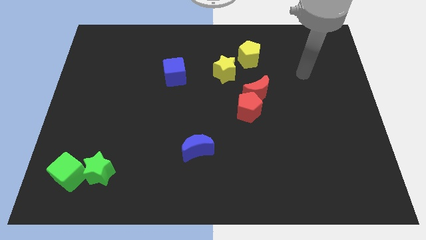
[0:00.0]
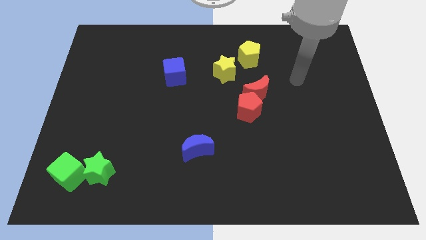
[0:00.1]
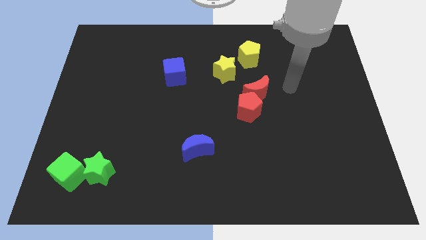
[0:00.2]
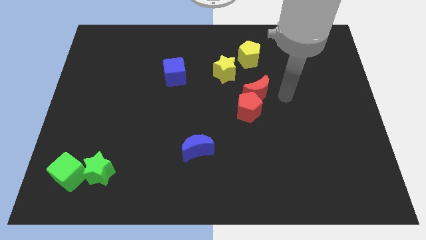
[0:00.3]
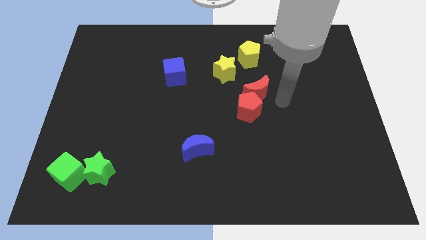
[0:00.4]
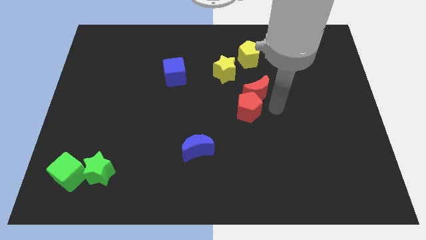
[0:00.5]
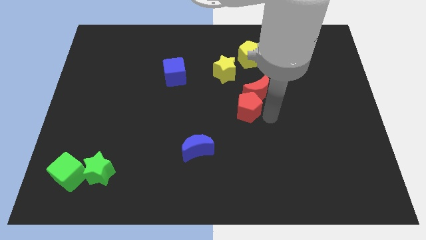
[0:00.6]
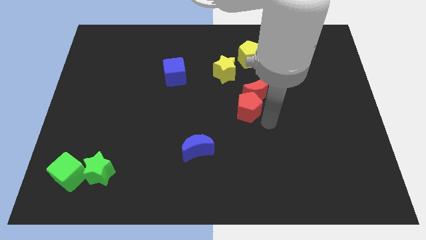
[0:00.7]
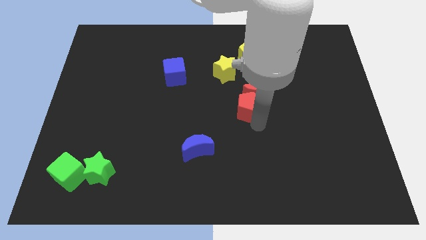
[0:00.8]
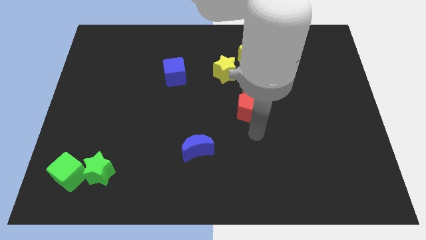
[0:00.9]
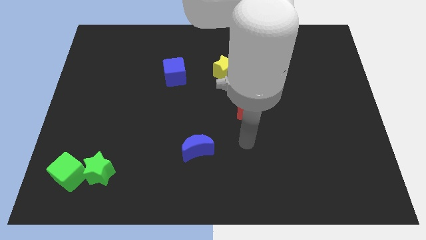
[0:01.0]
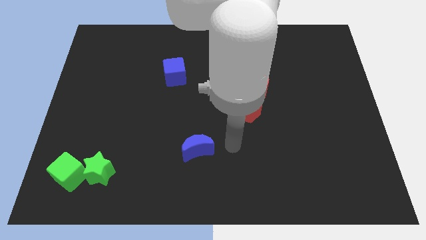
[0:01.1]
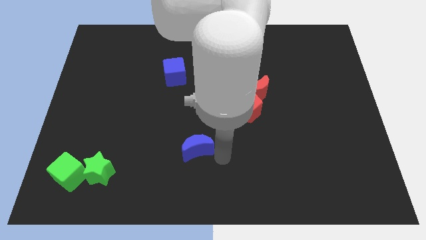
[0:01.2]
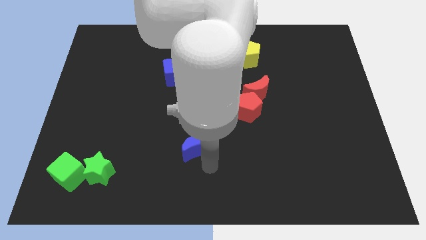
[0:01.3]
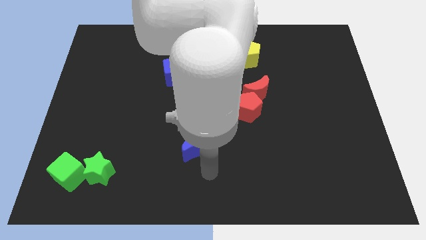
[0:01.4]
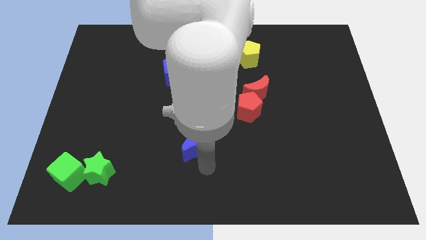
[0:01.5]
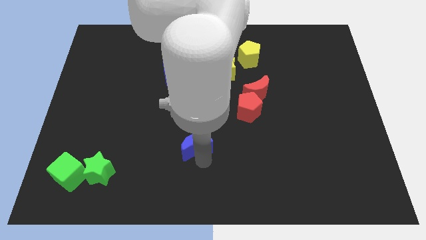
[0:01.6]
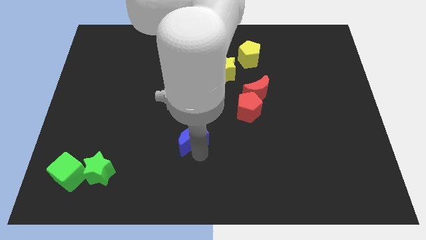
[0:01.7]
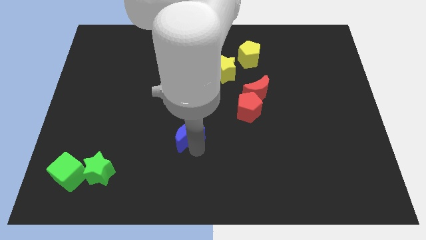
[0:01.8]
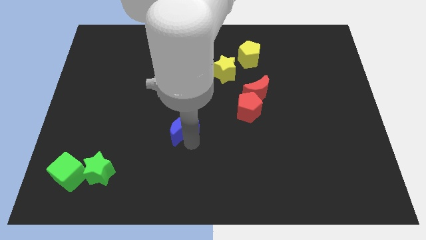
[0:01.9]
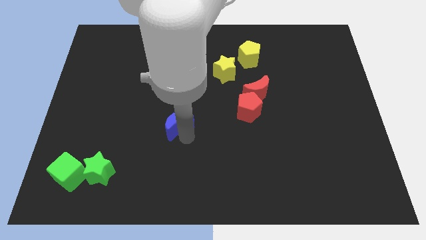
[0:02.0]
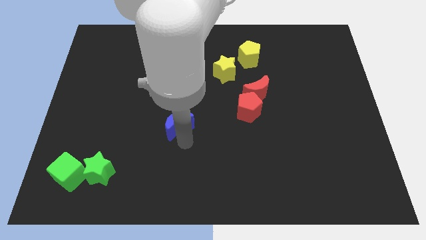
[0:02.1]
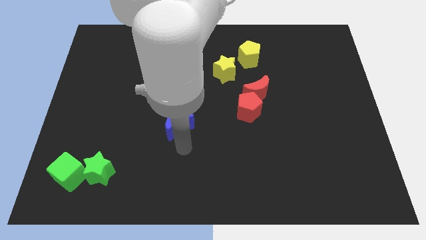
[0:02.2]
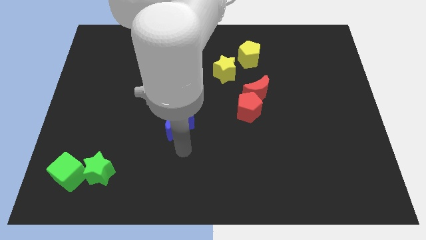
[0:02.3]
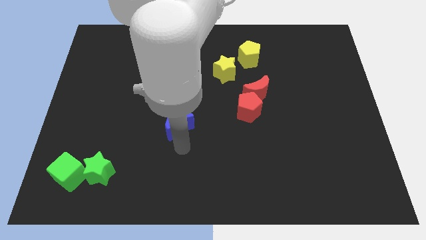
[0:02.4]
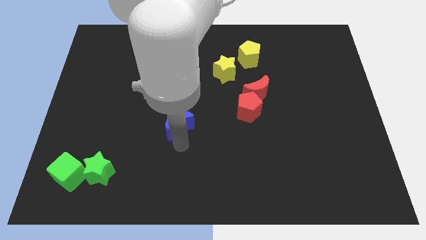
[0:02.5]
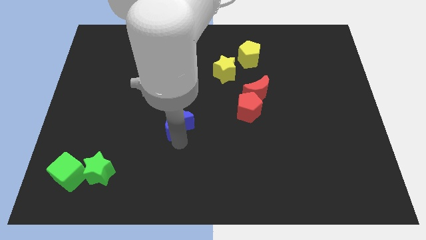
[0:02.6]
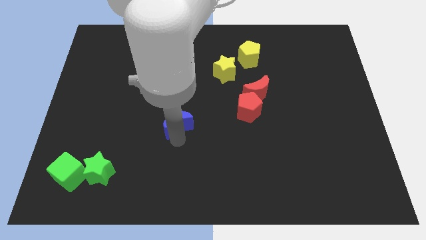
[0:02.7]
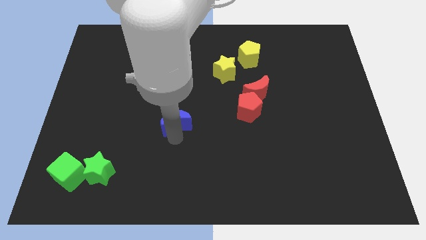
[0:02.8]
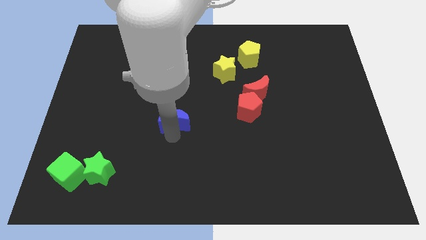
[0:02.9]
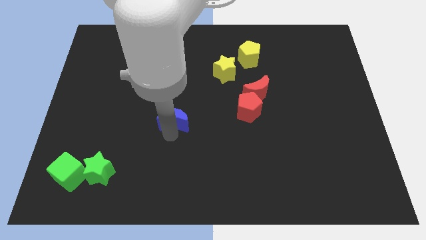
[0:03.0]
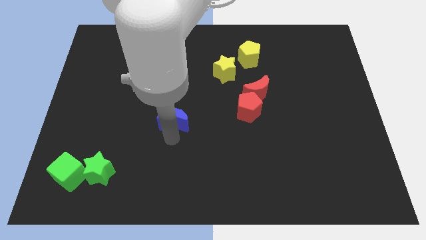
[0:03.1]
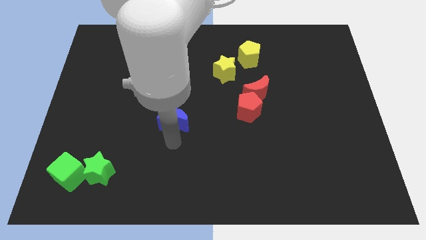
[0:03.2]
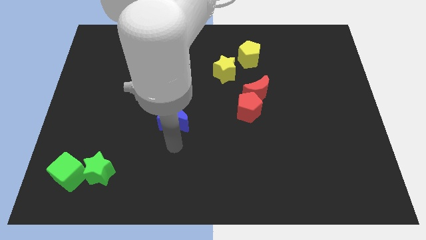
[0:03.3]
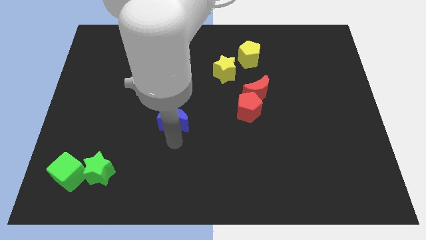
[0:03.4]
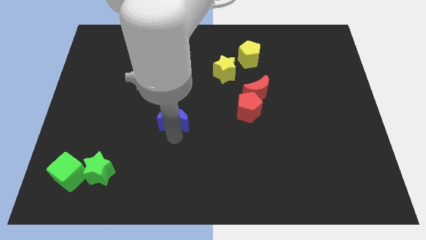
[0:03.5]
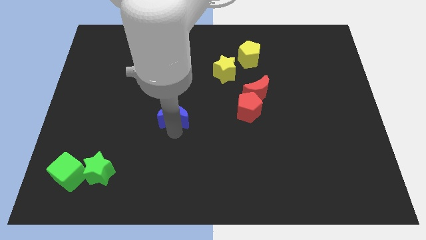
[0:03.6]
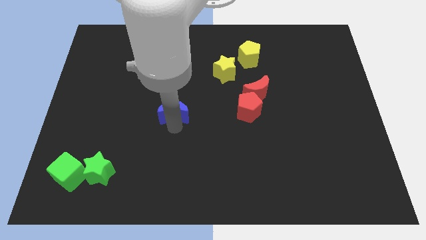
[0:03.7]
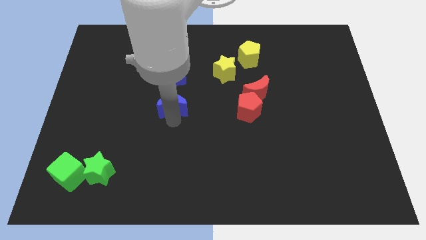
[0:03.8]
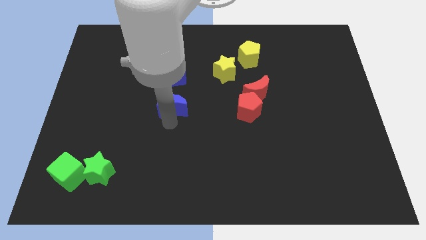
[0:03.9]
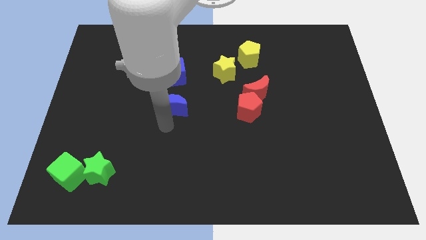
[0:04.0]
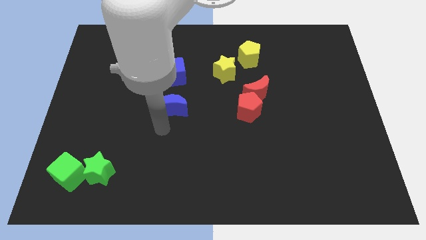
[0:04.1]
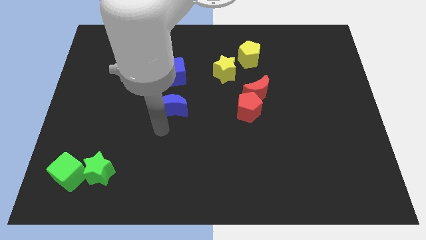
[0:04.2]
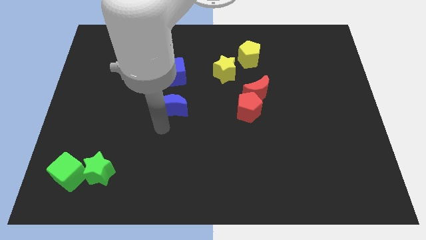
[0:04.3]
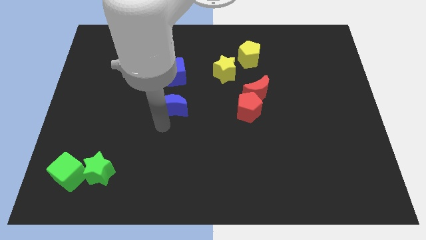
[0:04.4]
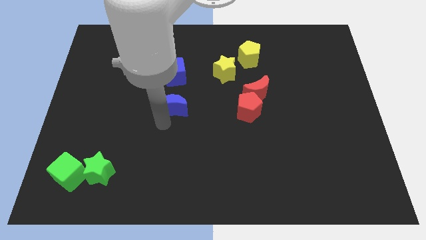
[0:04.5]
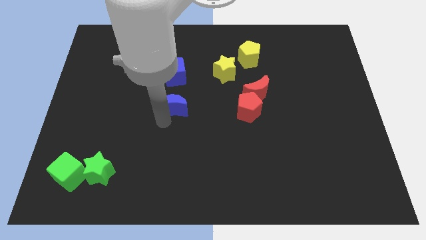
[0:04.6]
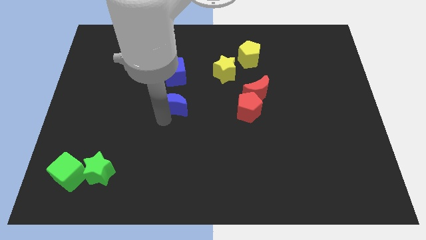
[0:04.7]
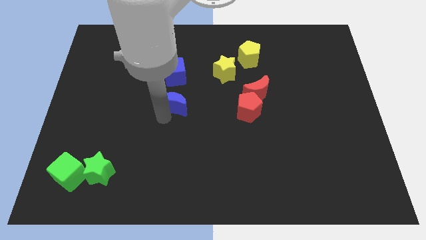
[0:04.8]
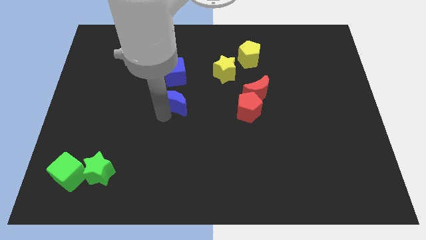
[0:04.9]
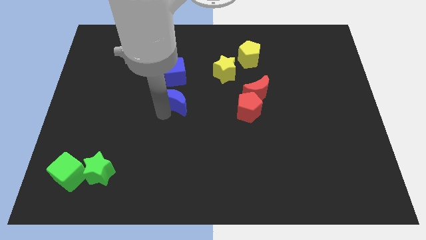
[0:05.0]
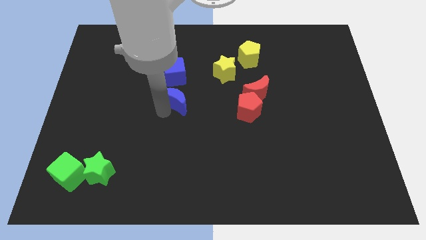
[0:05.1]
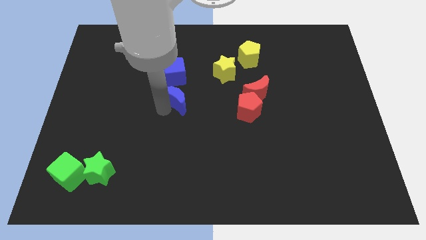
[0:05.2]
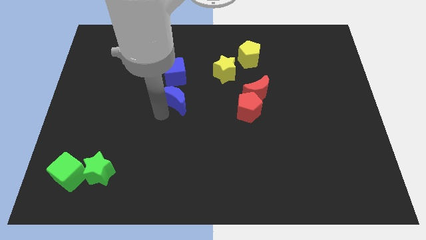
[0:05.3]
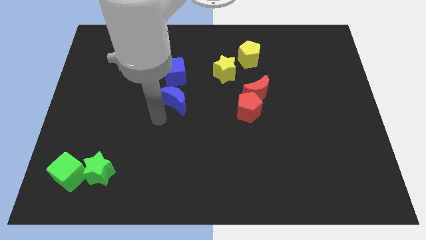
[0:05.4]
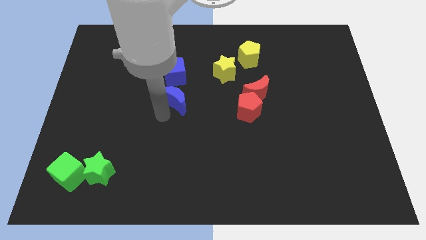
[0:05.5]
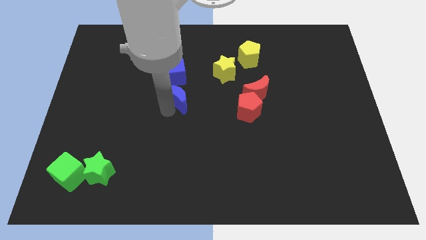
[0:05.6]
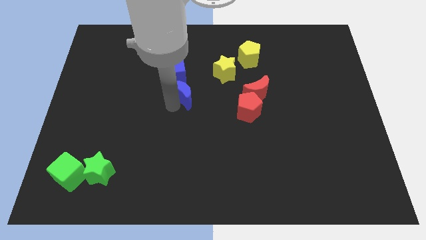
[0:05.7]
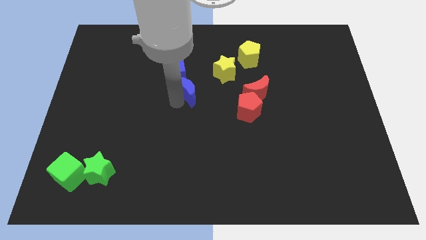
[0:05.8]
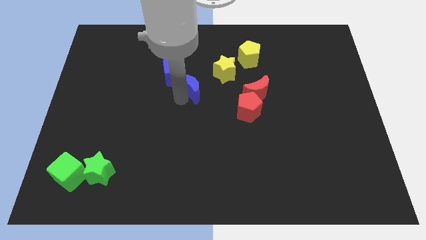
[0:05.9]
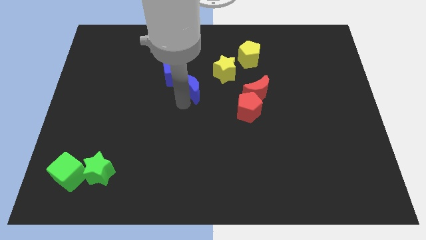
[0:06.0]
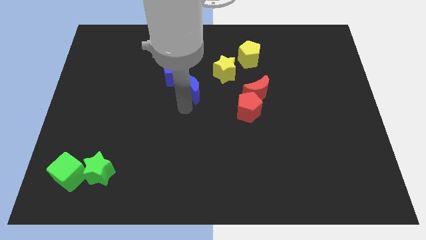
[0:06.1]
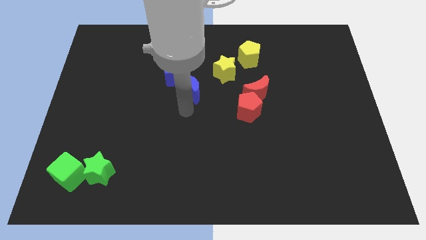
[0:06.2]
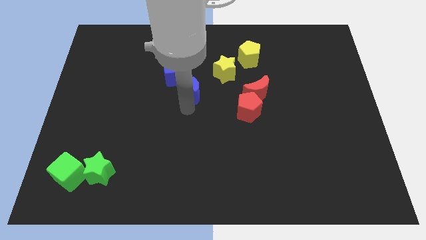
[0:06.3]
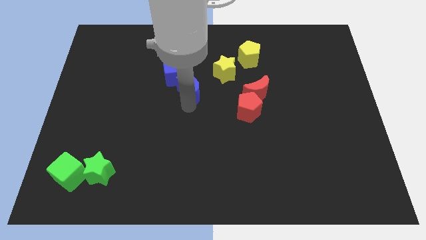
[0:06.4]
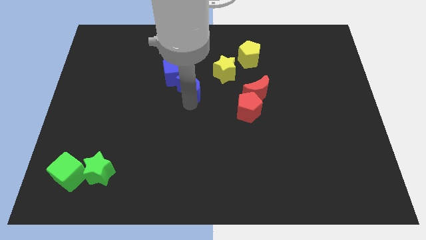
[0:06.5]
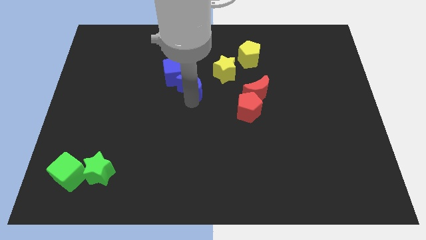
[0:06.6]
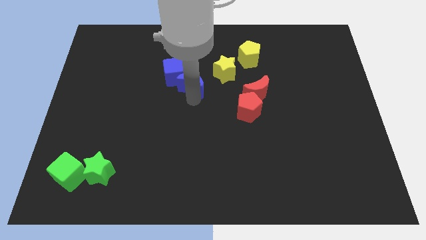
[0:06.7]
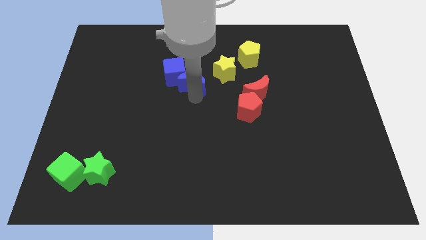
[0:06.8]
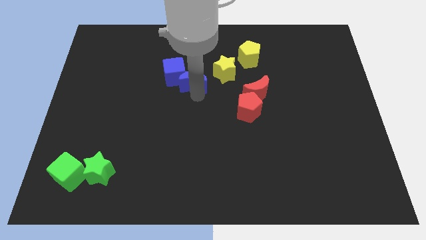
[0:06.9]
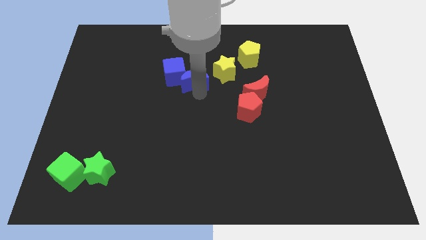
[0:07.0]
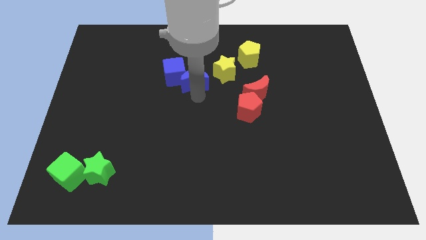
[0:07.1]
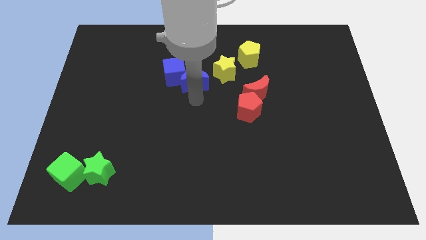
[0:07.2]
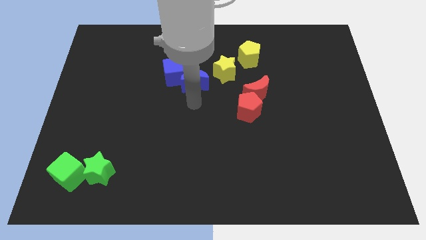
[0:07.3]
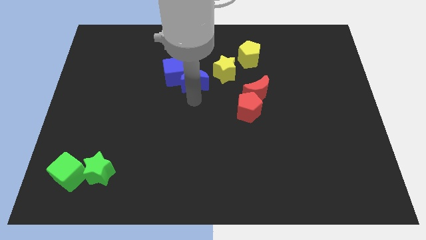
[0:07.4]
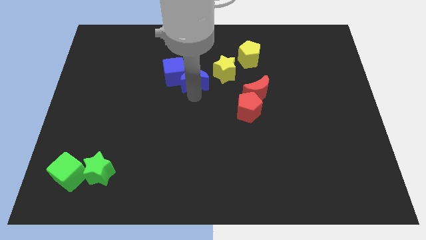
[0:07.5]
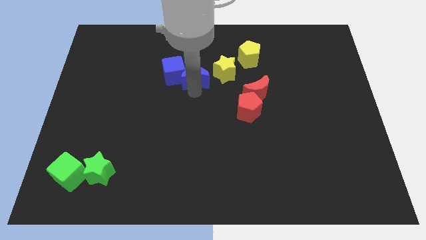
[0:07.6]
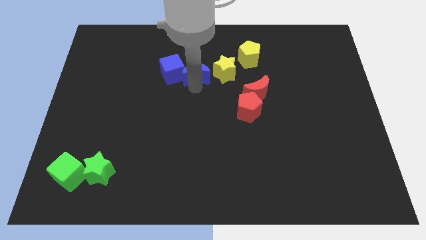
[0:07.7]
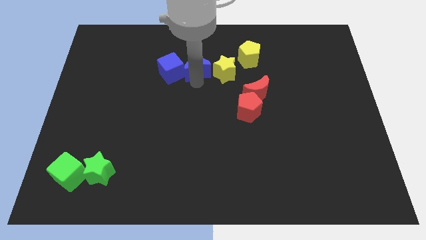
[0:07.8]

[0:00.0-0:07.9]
slide the blue moon diagonally up and to the right of the blue cube

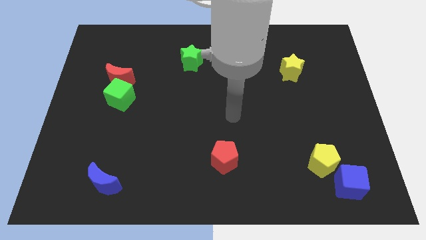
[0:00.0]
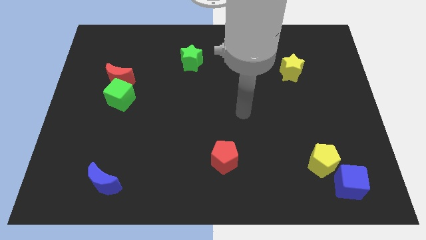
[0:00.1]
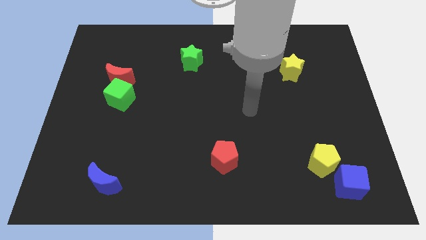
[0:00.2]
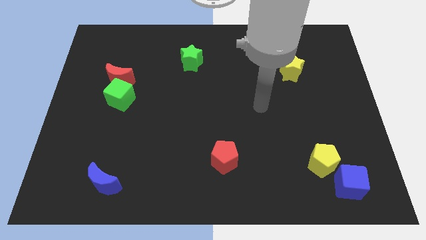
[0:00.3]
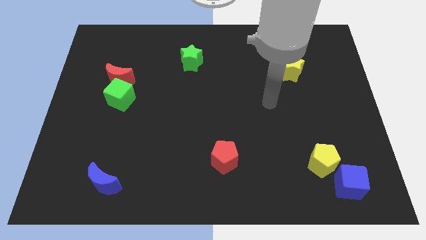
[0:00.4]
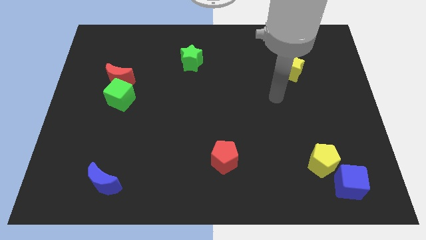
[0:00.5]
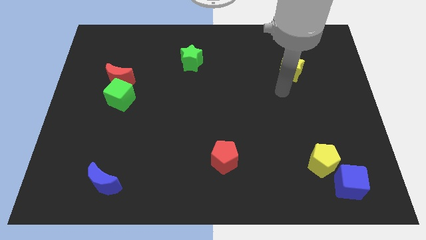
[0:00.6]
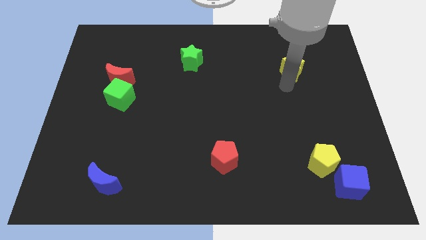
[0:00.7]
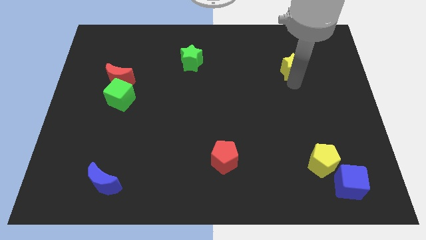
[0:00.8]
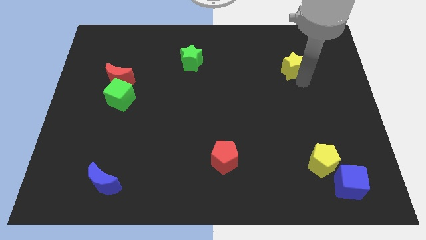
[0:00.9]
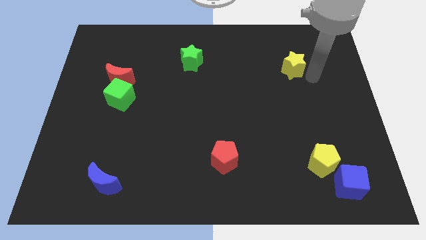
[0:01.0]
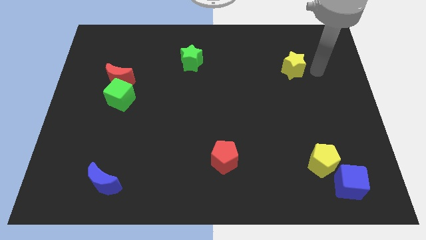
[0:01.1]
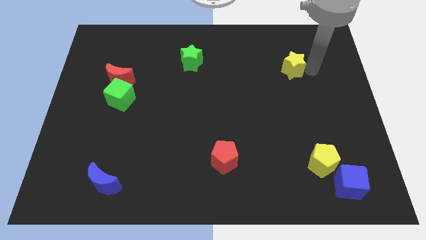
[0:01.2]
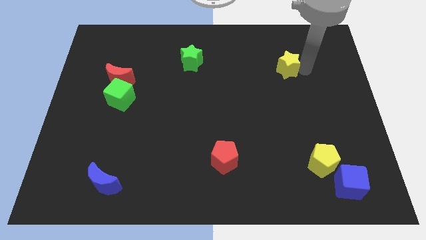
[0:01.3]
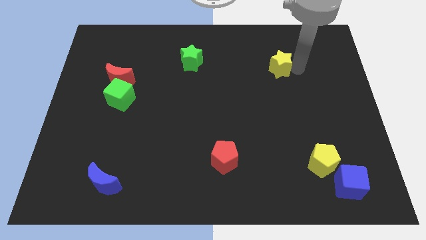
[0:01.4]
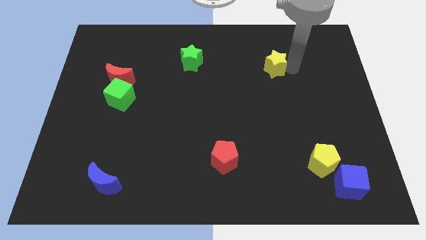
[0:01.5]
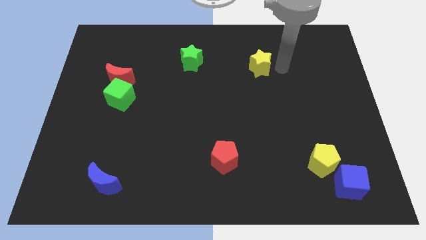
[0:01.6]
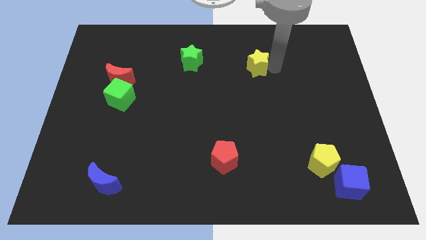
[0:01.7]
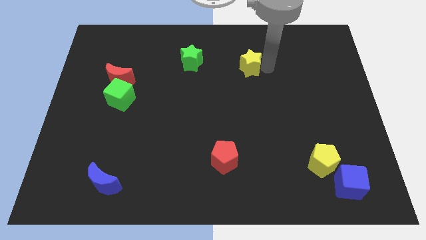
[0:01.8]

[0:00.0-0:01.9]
push the yellow star just right of the green star
